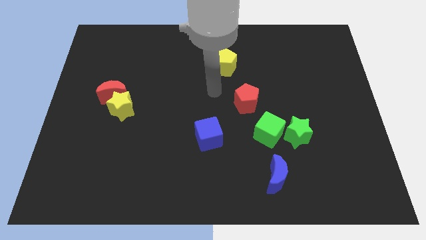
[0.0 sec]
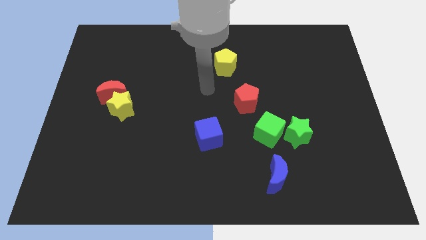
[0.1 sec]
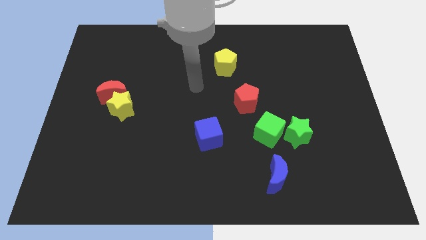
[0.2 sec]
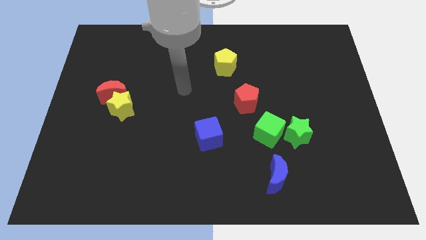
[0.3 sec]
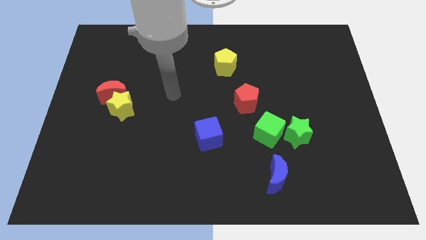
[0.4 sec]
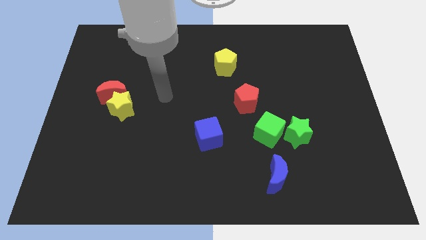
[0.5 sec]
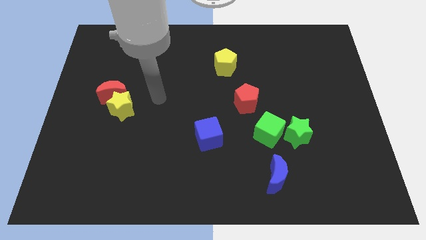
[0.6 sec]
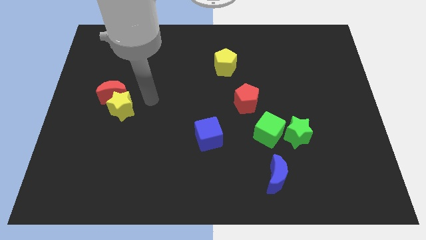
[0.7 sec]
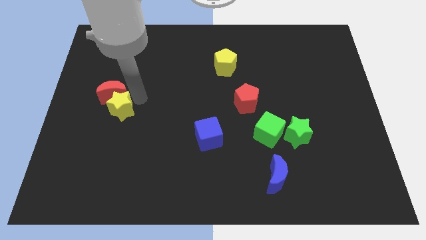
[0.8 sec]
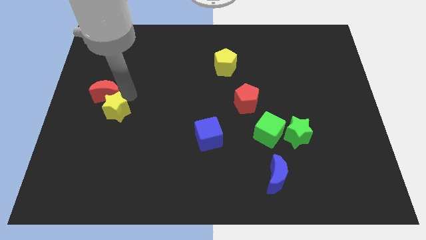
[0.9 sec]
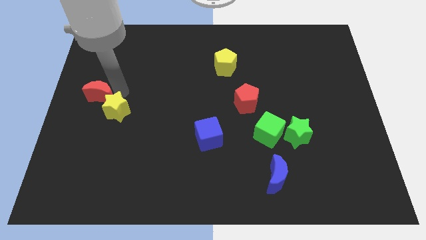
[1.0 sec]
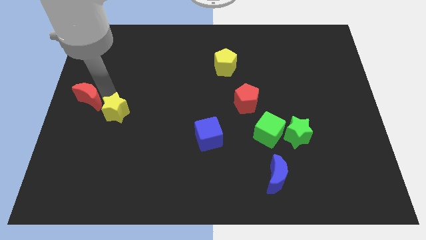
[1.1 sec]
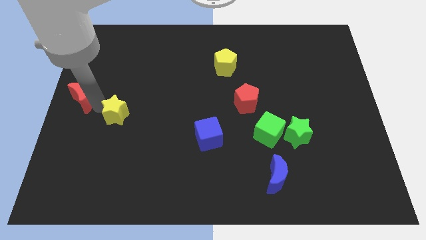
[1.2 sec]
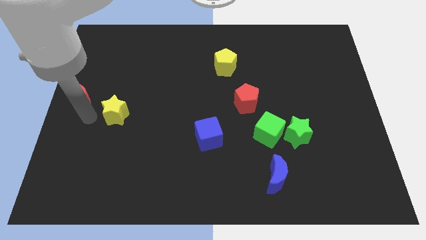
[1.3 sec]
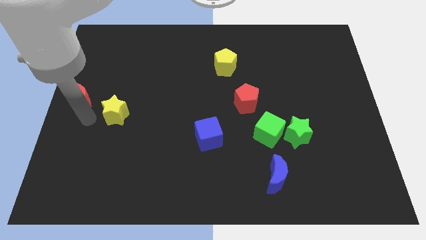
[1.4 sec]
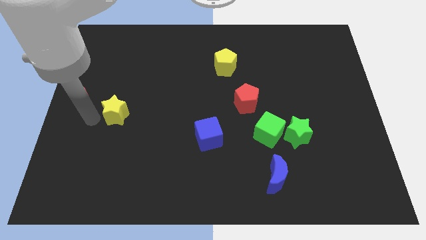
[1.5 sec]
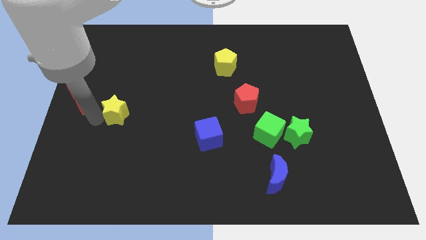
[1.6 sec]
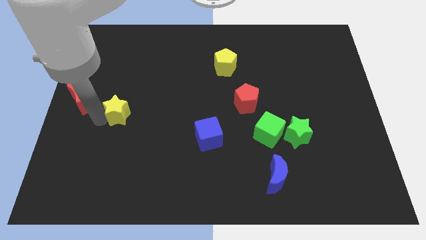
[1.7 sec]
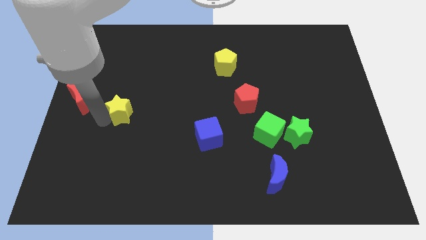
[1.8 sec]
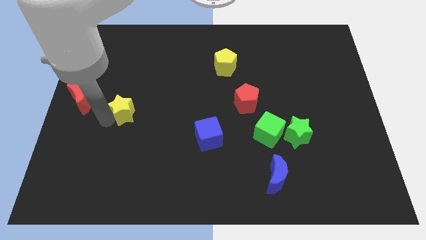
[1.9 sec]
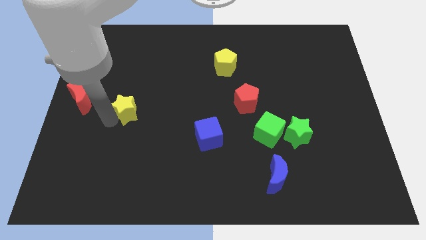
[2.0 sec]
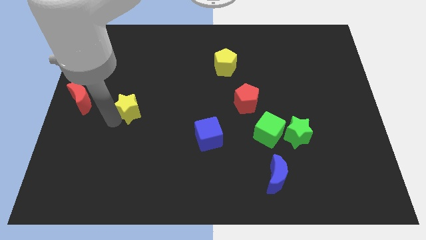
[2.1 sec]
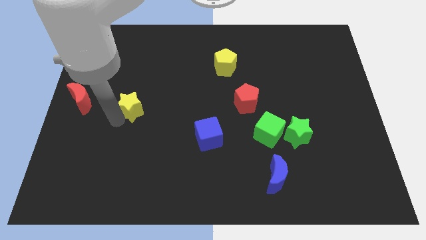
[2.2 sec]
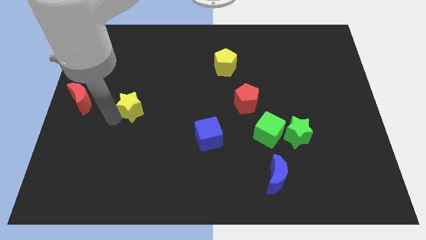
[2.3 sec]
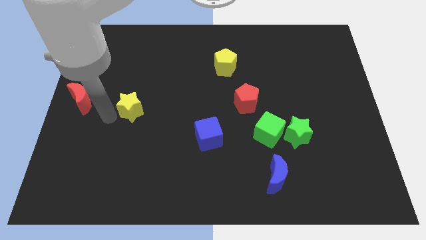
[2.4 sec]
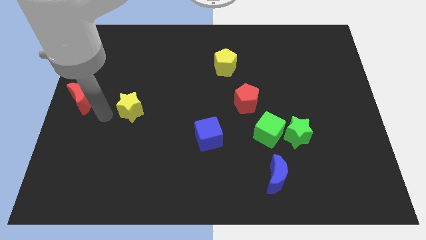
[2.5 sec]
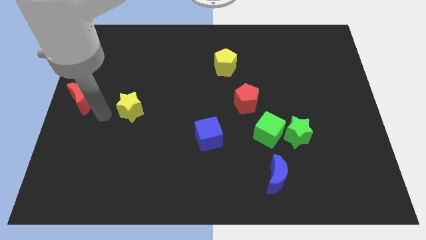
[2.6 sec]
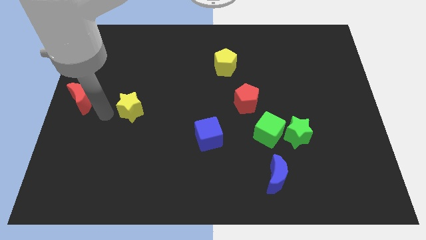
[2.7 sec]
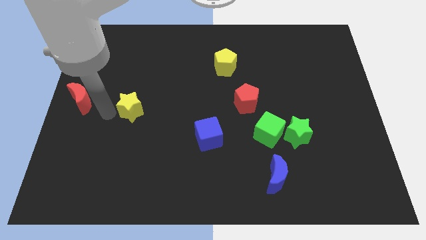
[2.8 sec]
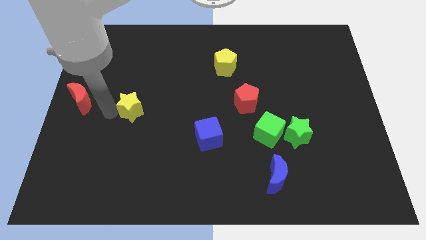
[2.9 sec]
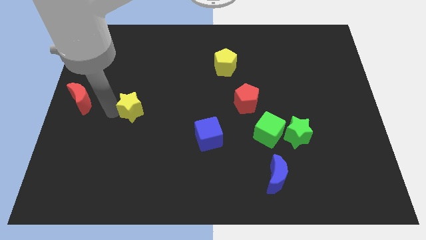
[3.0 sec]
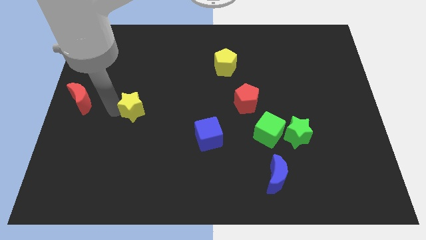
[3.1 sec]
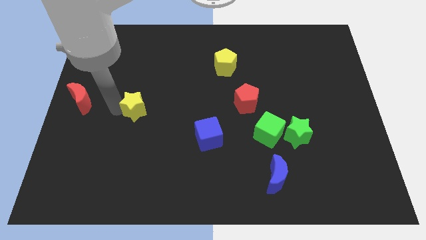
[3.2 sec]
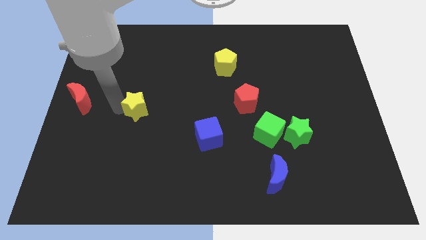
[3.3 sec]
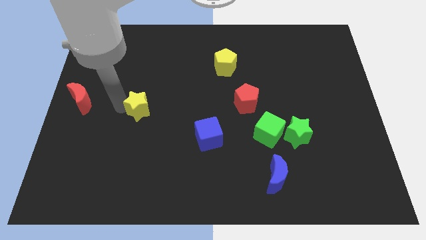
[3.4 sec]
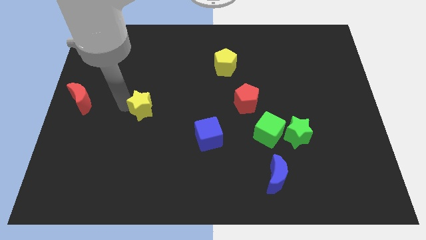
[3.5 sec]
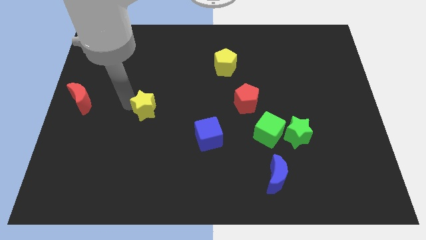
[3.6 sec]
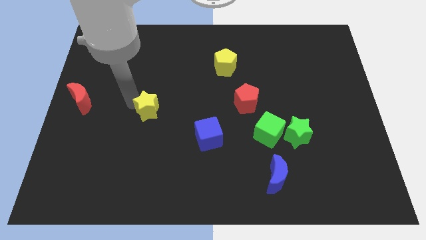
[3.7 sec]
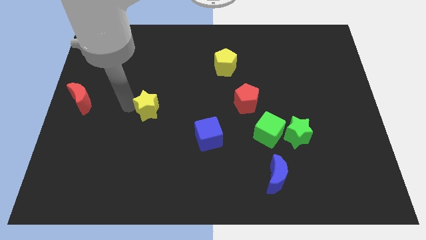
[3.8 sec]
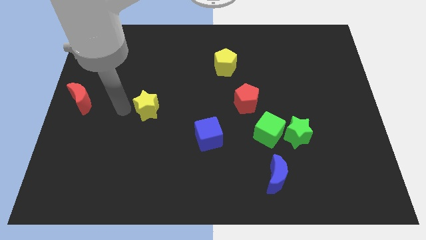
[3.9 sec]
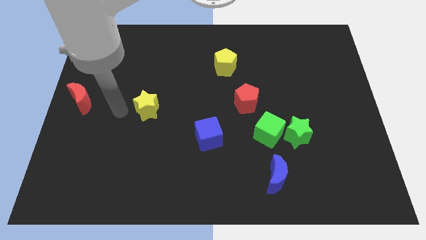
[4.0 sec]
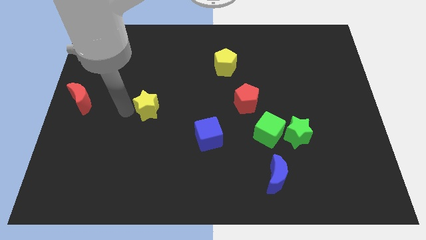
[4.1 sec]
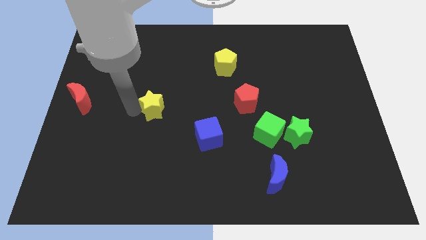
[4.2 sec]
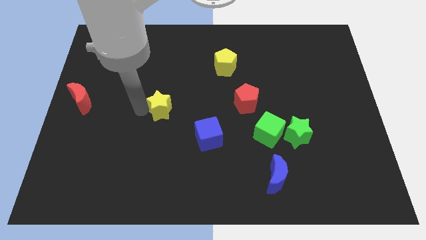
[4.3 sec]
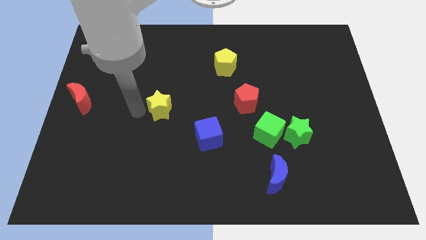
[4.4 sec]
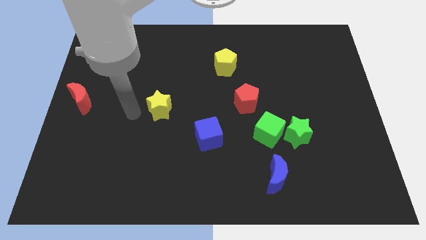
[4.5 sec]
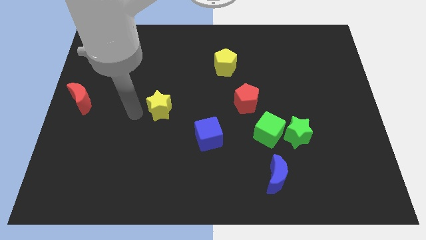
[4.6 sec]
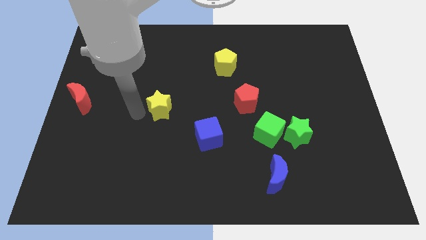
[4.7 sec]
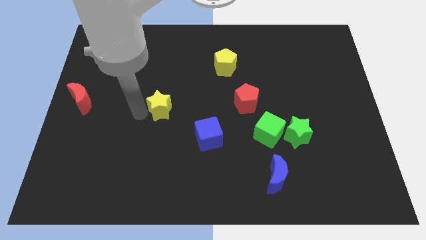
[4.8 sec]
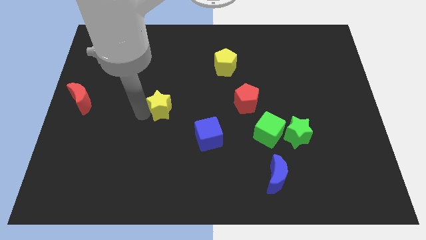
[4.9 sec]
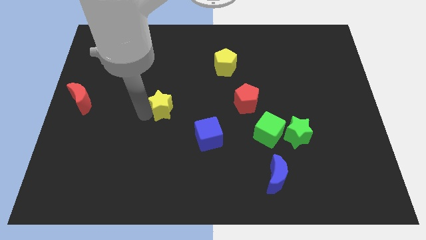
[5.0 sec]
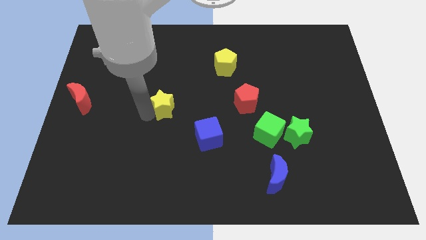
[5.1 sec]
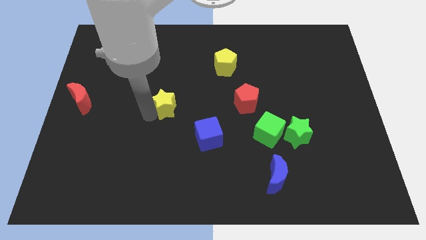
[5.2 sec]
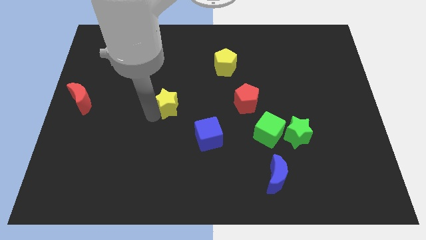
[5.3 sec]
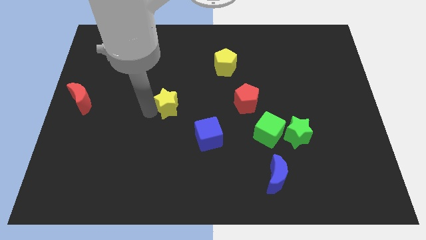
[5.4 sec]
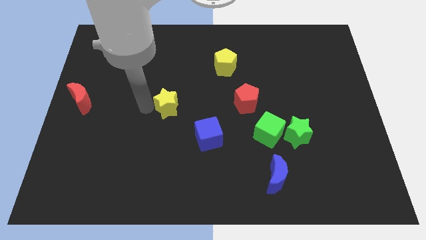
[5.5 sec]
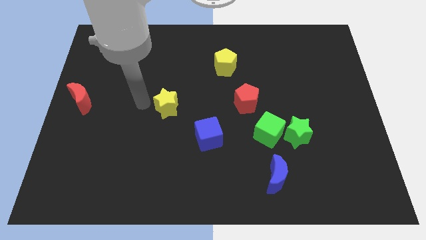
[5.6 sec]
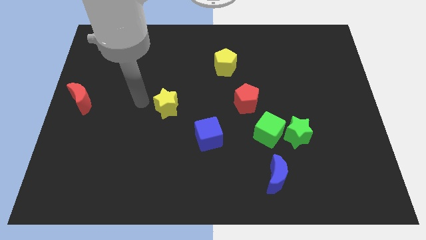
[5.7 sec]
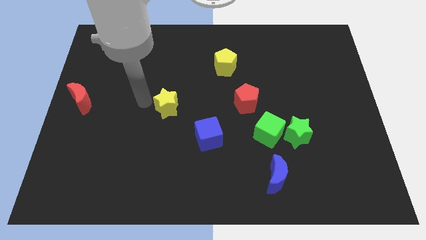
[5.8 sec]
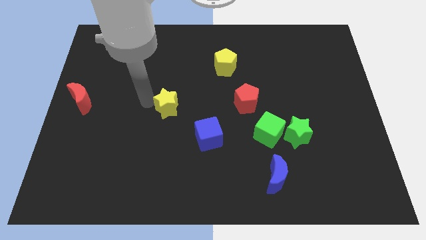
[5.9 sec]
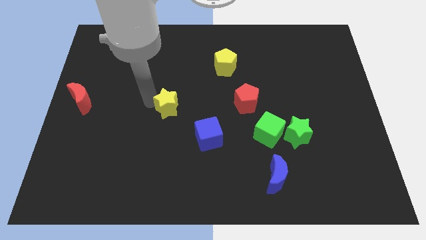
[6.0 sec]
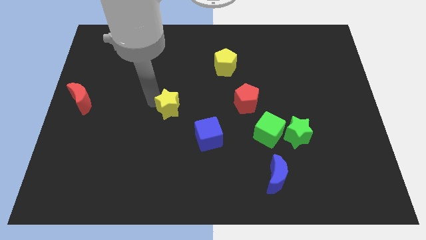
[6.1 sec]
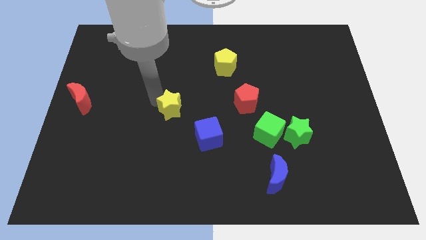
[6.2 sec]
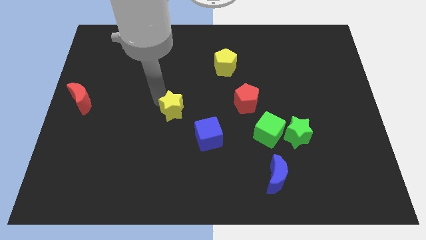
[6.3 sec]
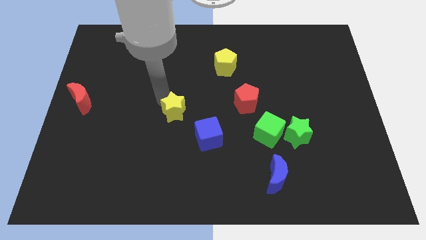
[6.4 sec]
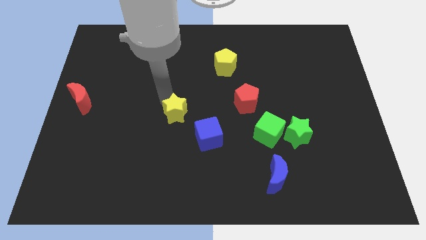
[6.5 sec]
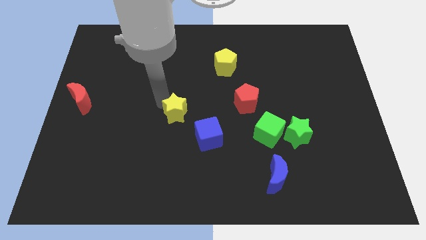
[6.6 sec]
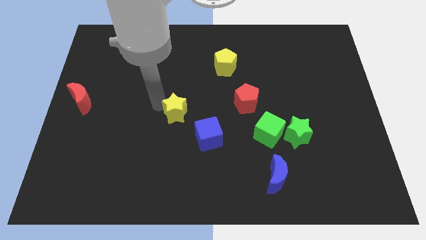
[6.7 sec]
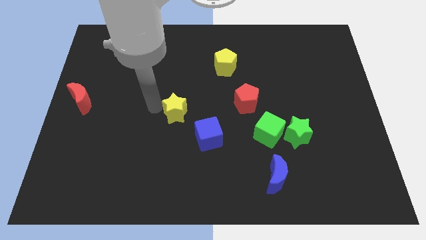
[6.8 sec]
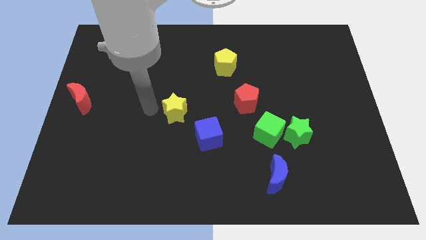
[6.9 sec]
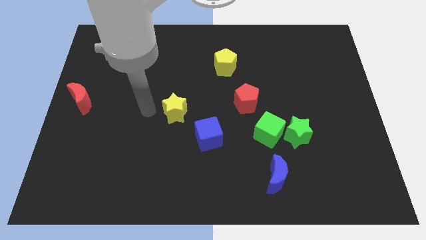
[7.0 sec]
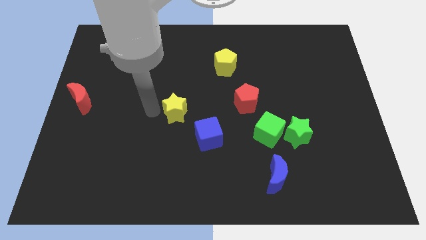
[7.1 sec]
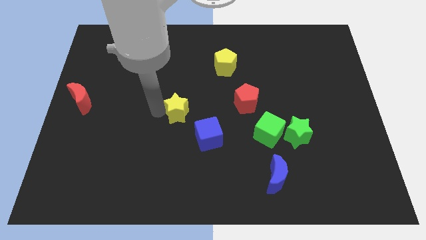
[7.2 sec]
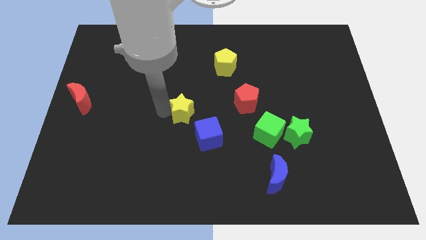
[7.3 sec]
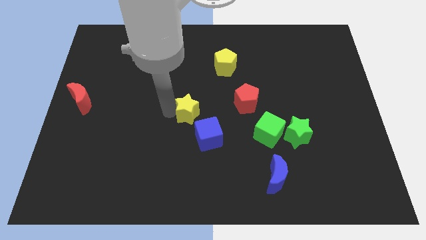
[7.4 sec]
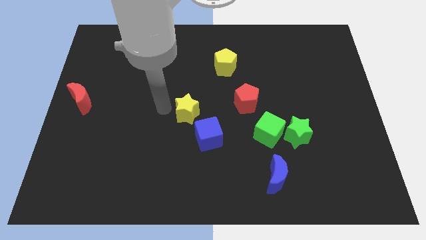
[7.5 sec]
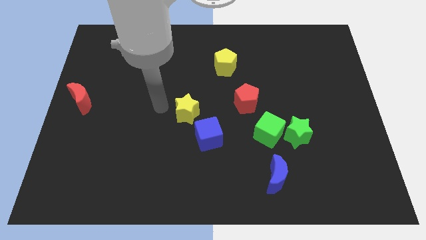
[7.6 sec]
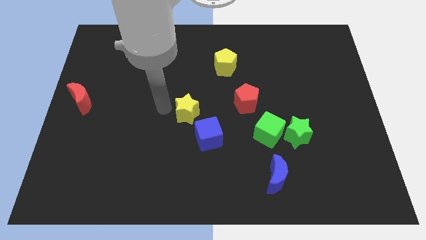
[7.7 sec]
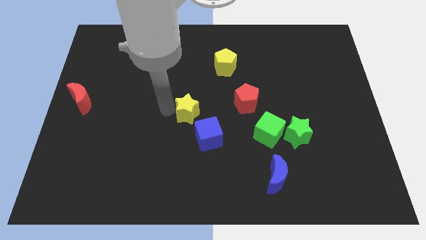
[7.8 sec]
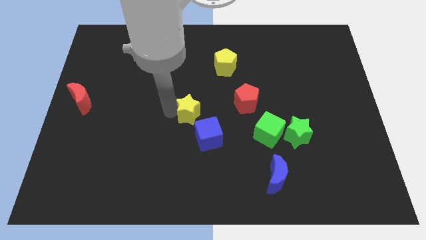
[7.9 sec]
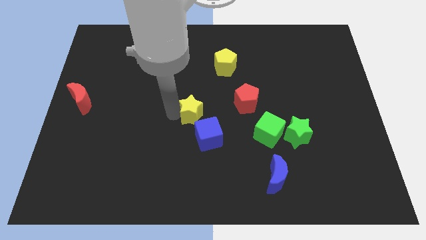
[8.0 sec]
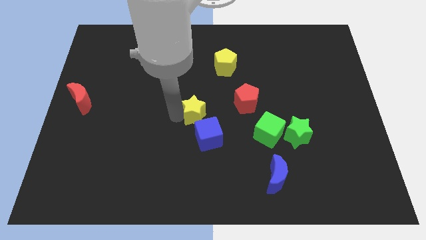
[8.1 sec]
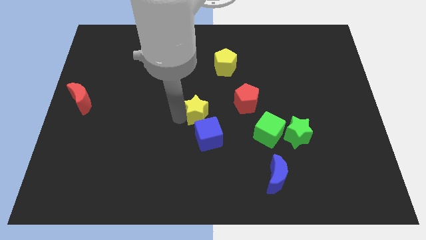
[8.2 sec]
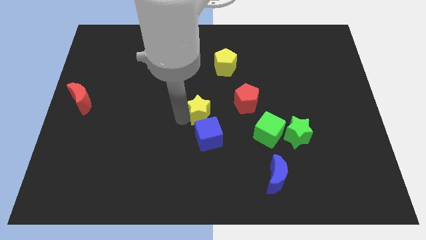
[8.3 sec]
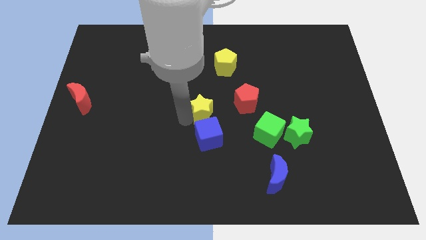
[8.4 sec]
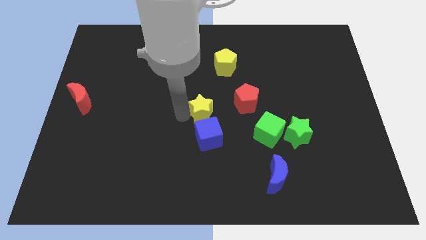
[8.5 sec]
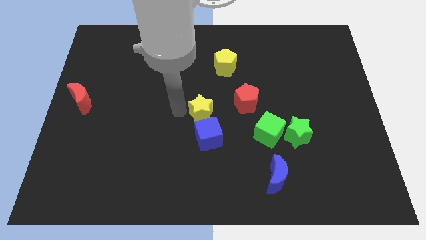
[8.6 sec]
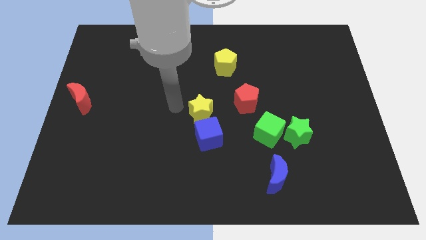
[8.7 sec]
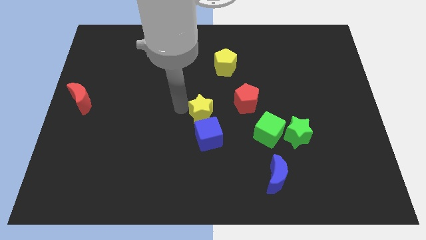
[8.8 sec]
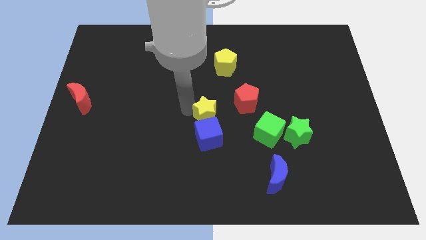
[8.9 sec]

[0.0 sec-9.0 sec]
slide the yellow star to the bottom left side of the red pentagon
